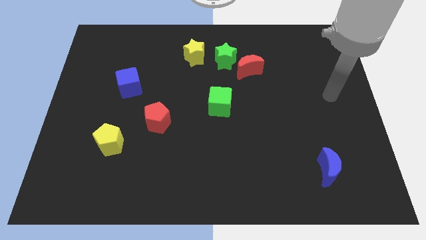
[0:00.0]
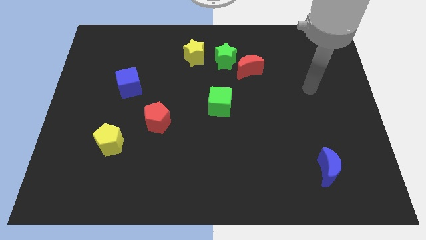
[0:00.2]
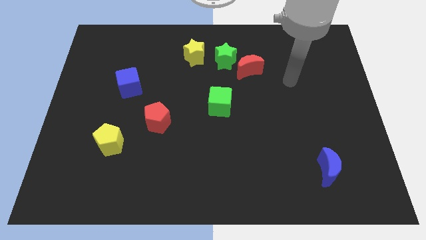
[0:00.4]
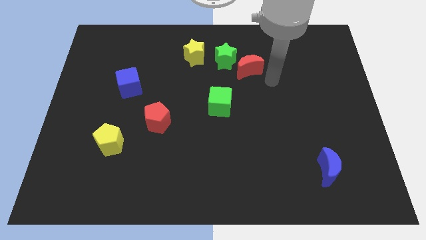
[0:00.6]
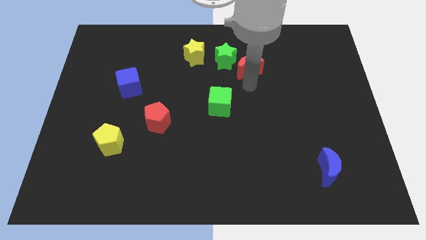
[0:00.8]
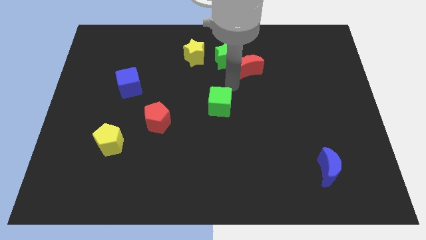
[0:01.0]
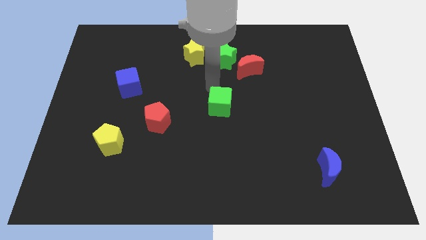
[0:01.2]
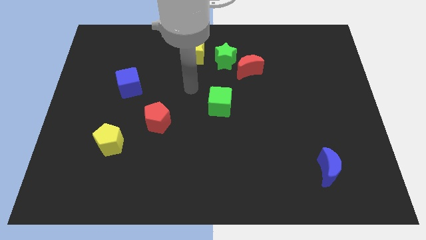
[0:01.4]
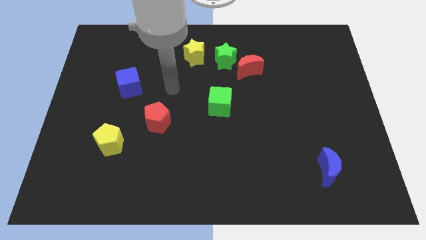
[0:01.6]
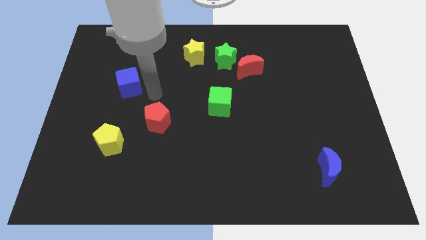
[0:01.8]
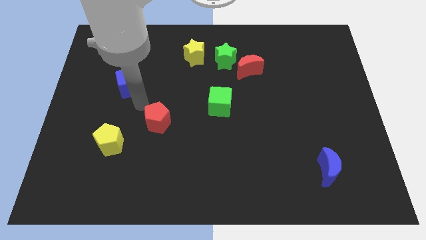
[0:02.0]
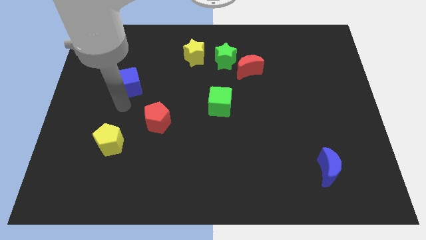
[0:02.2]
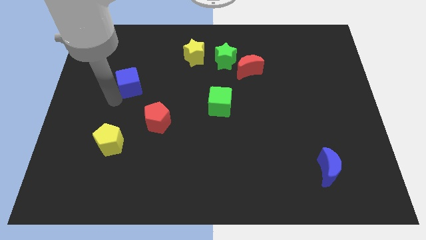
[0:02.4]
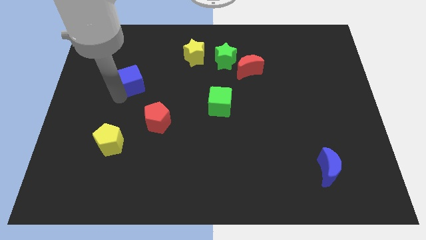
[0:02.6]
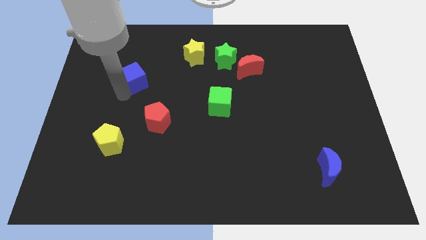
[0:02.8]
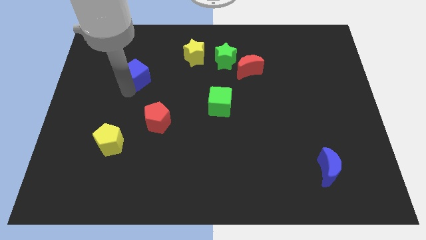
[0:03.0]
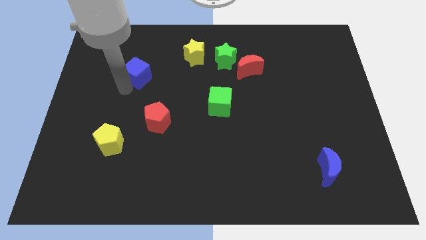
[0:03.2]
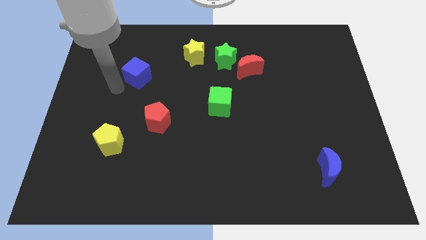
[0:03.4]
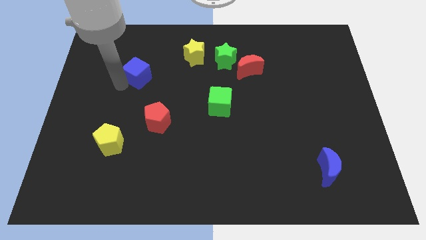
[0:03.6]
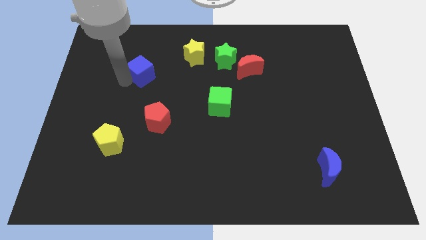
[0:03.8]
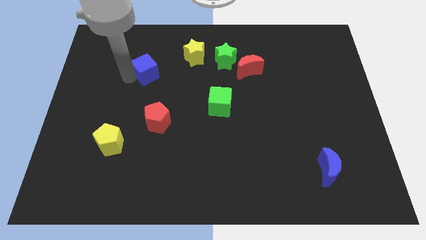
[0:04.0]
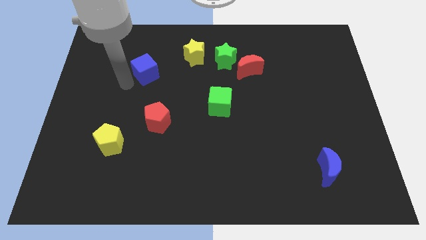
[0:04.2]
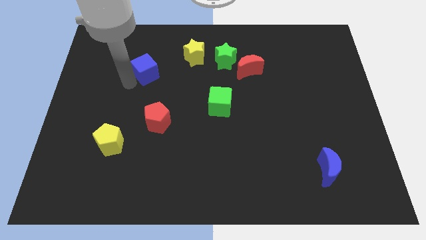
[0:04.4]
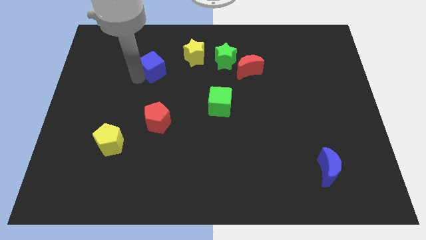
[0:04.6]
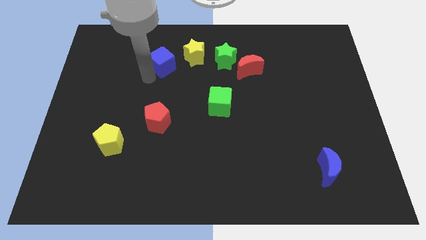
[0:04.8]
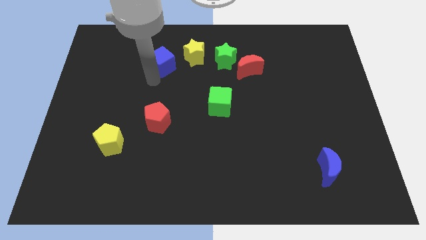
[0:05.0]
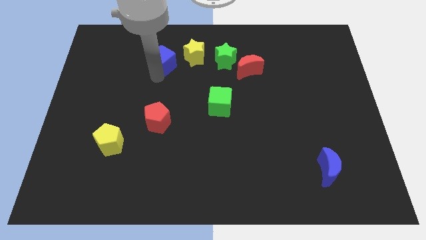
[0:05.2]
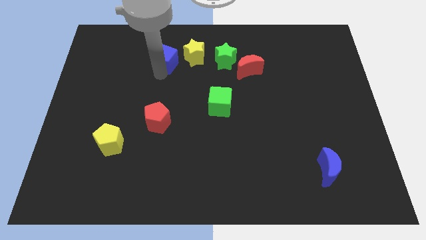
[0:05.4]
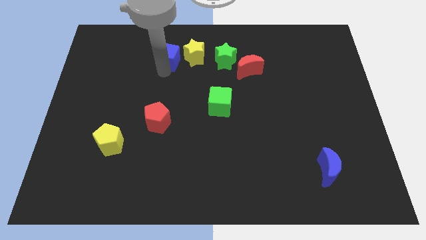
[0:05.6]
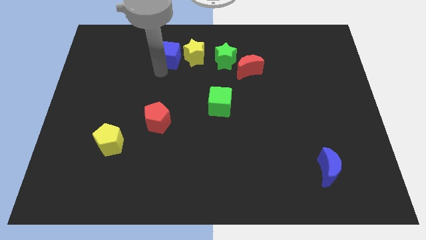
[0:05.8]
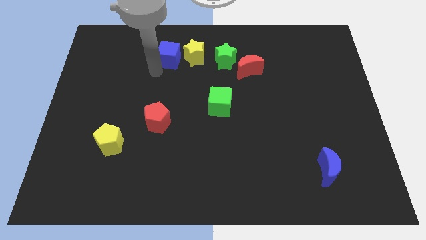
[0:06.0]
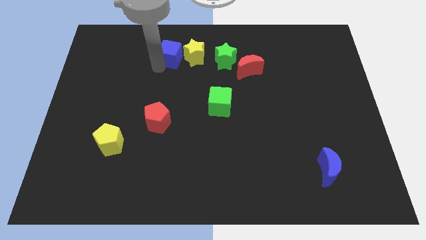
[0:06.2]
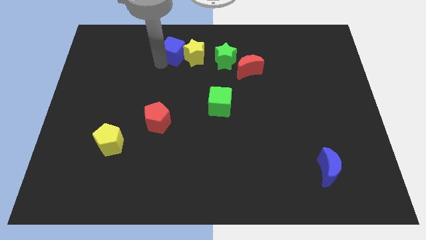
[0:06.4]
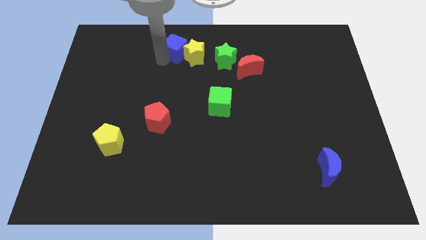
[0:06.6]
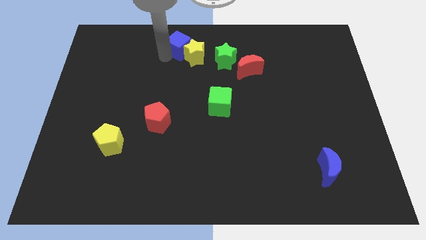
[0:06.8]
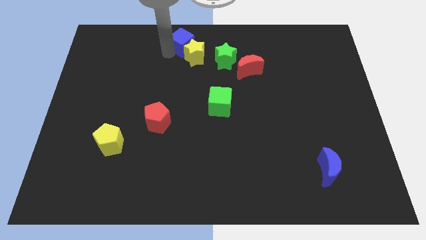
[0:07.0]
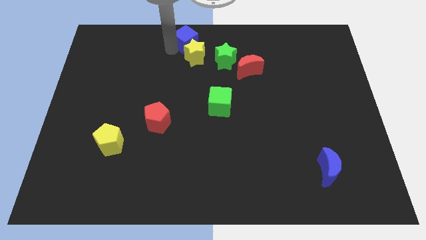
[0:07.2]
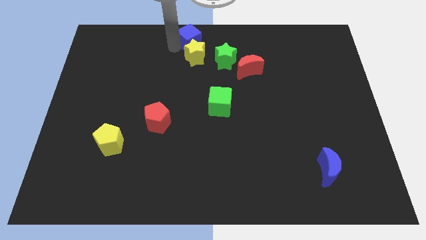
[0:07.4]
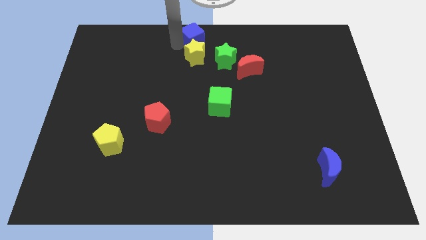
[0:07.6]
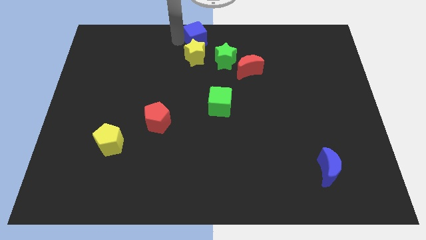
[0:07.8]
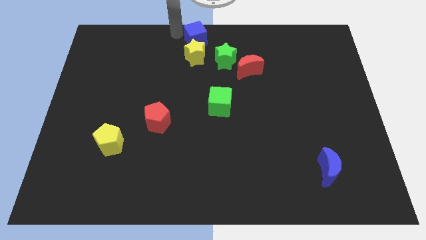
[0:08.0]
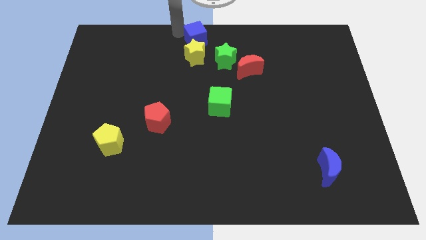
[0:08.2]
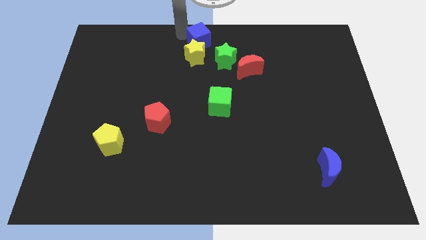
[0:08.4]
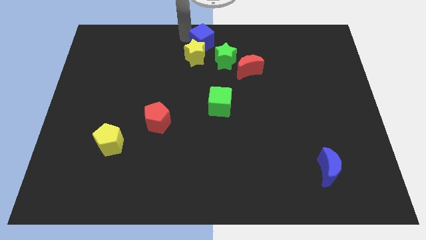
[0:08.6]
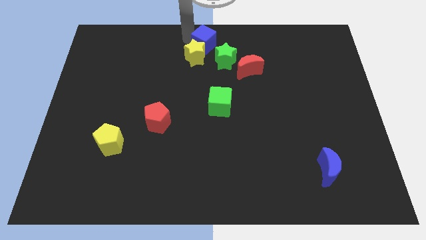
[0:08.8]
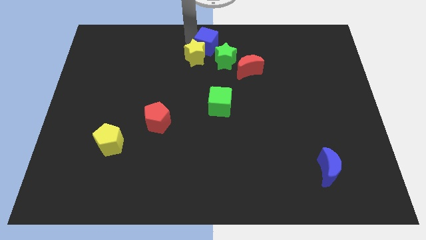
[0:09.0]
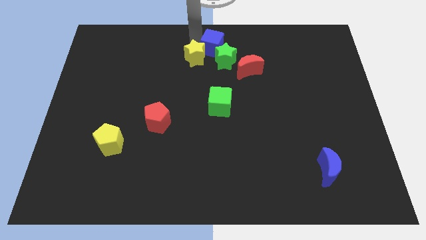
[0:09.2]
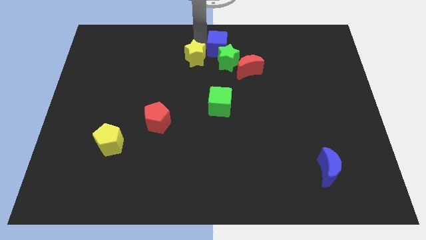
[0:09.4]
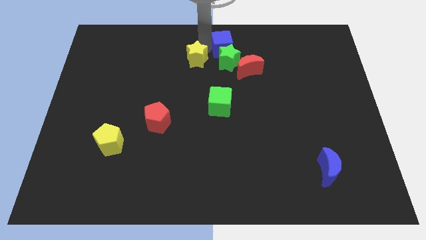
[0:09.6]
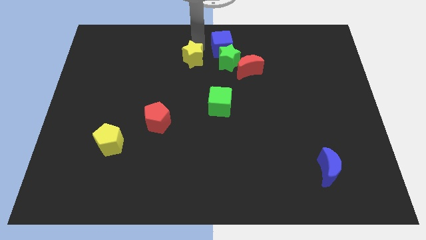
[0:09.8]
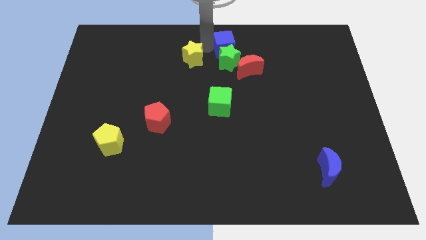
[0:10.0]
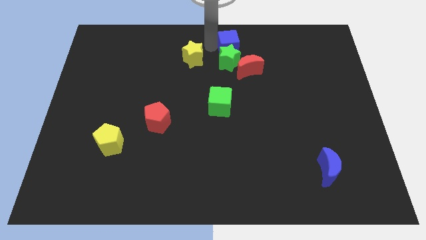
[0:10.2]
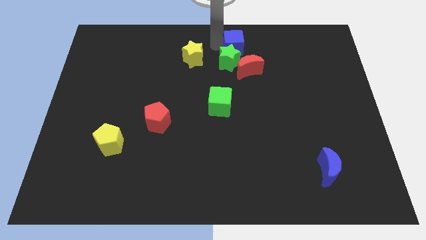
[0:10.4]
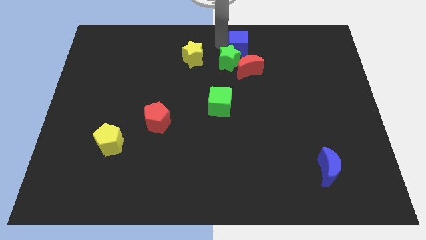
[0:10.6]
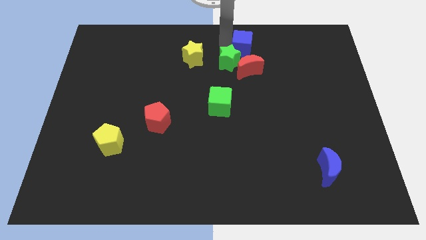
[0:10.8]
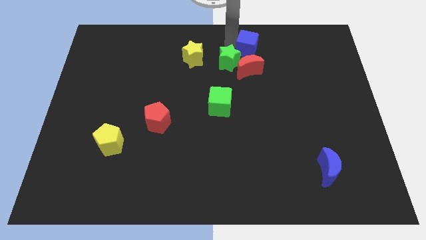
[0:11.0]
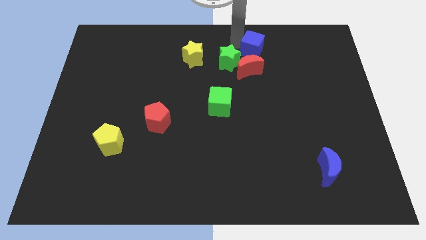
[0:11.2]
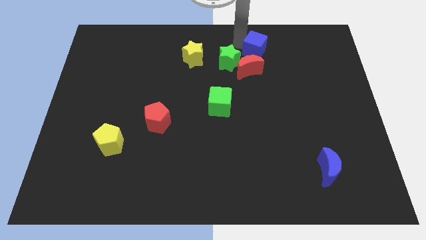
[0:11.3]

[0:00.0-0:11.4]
put the blue cube right of the green star

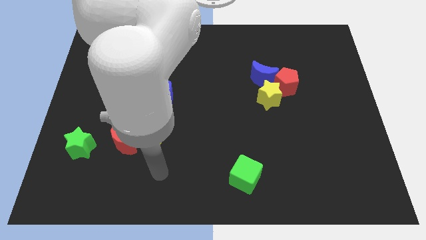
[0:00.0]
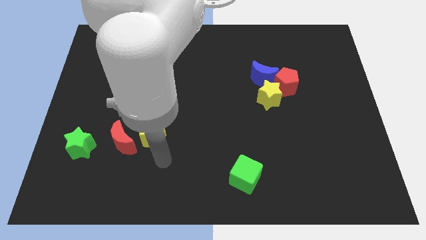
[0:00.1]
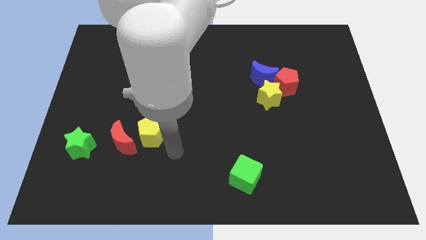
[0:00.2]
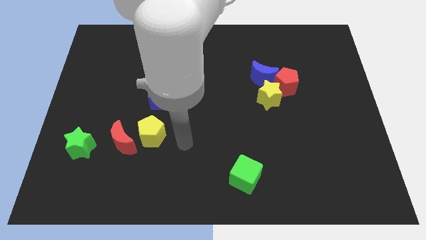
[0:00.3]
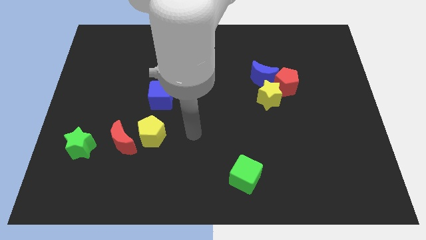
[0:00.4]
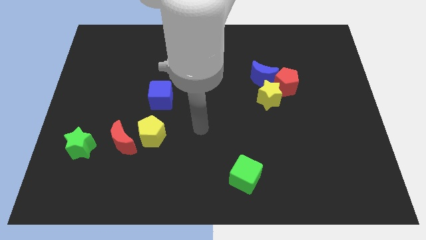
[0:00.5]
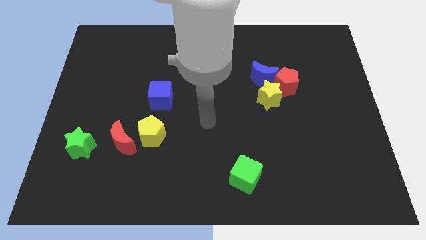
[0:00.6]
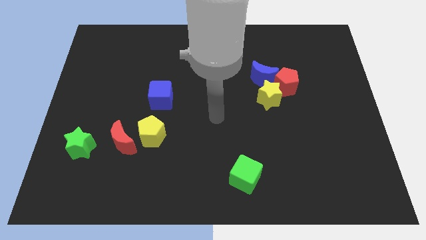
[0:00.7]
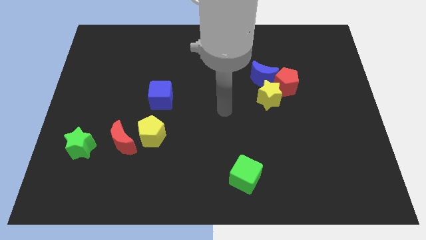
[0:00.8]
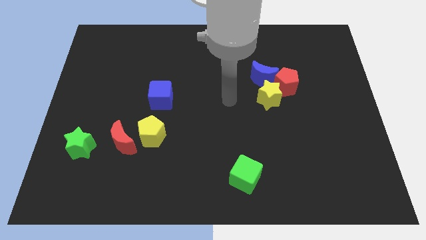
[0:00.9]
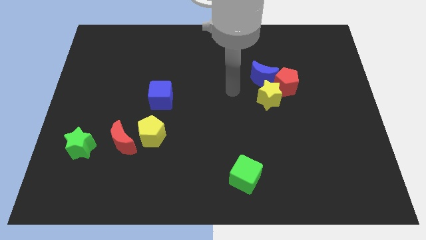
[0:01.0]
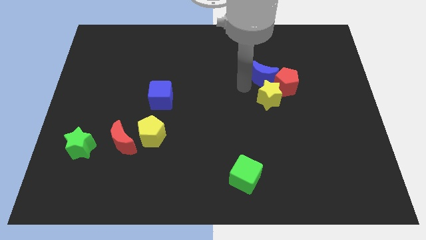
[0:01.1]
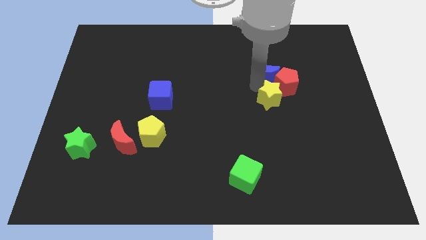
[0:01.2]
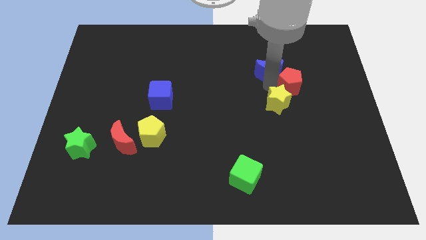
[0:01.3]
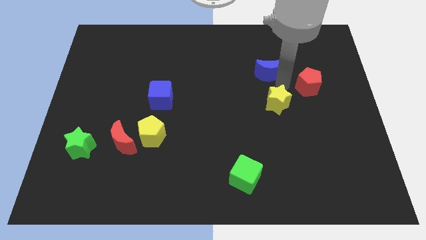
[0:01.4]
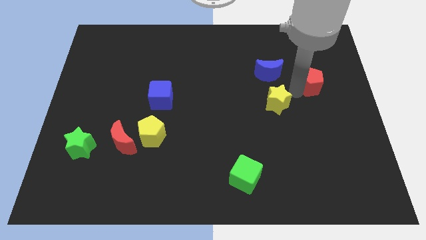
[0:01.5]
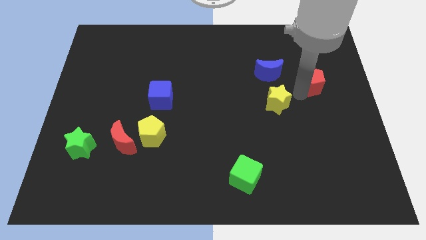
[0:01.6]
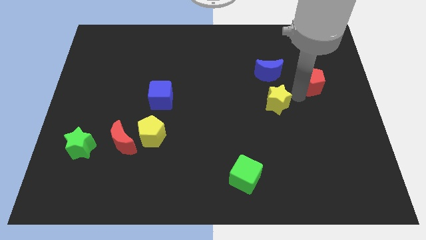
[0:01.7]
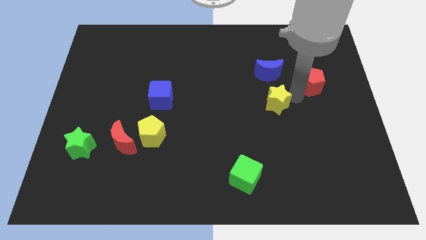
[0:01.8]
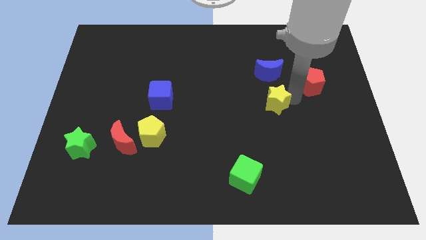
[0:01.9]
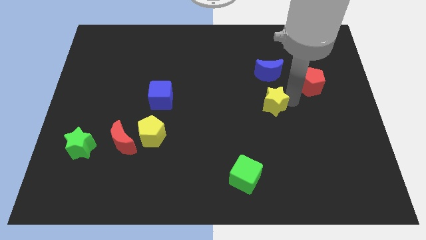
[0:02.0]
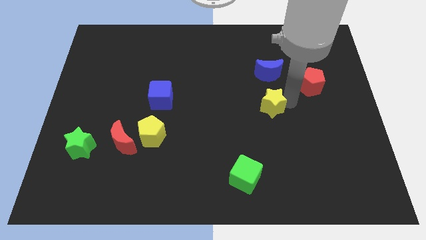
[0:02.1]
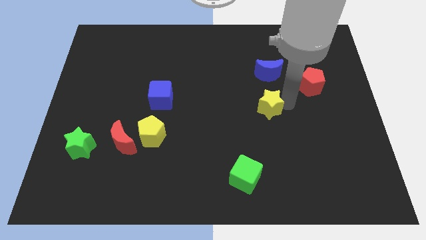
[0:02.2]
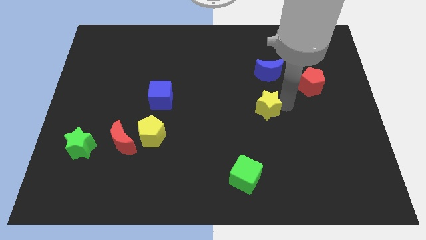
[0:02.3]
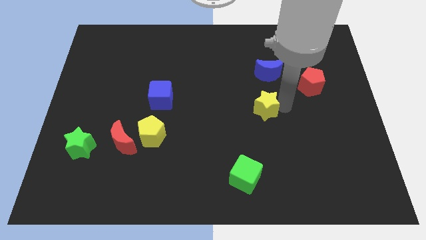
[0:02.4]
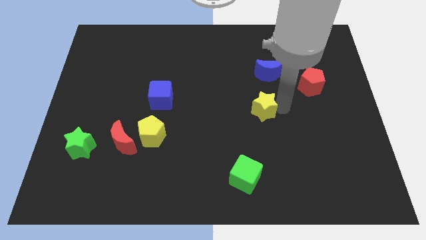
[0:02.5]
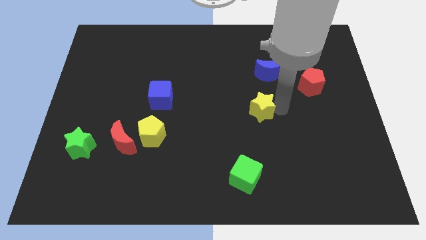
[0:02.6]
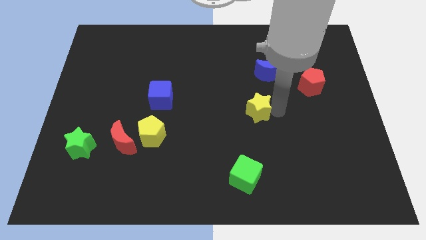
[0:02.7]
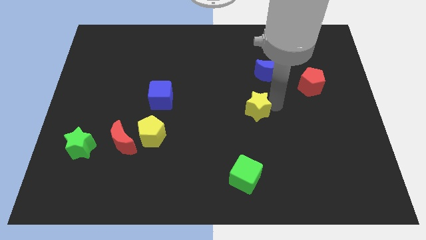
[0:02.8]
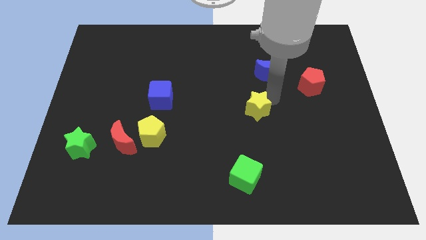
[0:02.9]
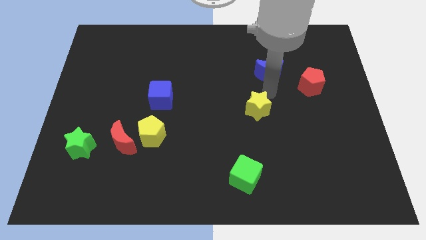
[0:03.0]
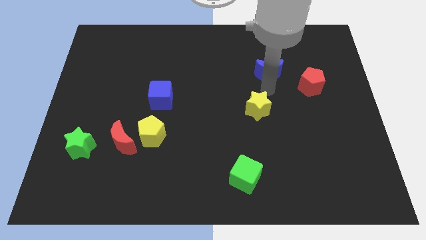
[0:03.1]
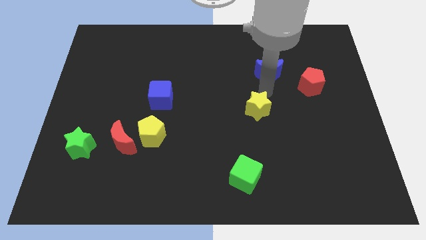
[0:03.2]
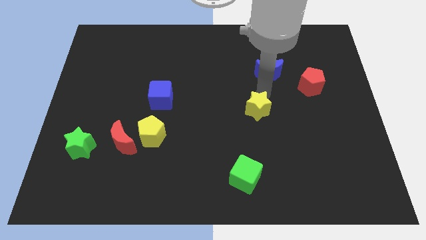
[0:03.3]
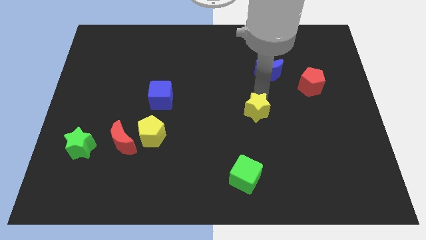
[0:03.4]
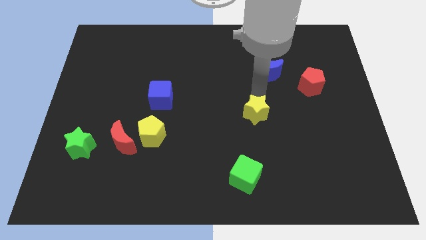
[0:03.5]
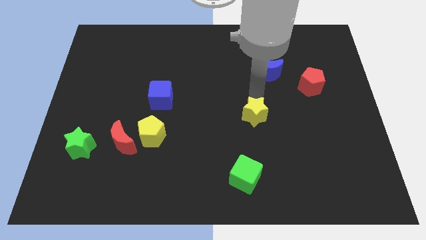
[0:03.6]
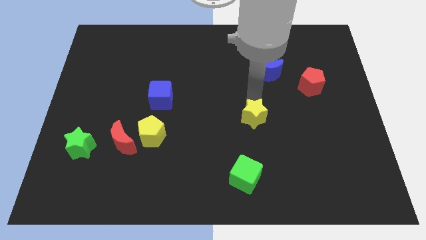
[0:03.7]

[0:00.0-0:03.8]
move the yellow star above the green cube
